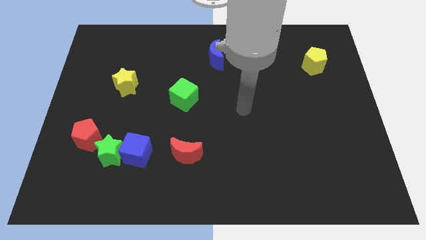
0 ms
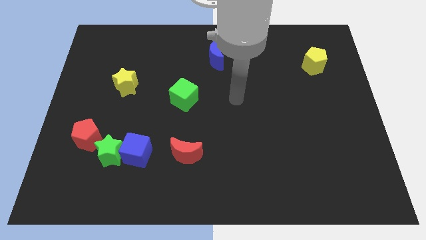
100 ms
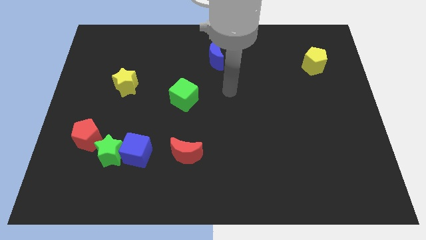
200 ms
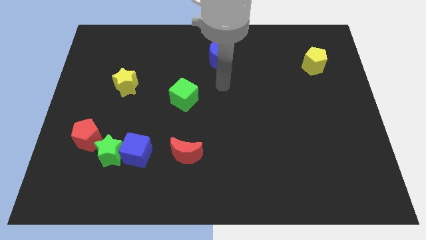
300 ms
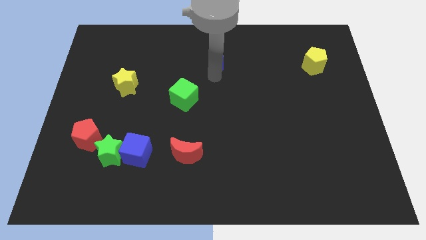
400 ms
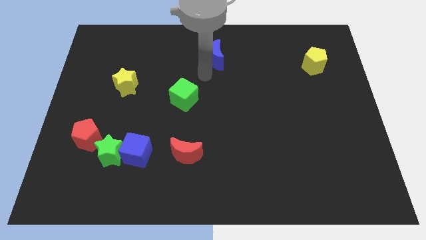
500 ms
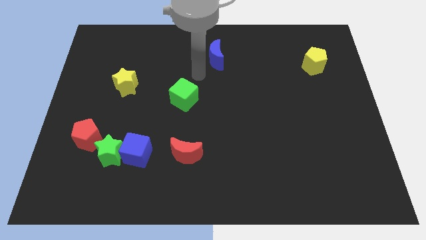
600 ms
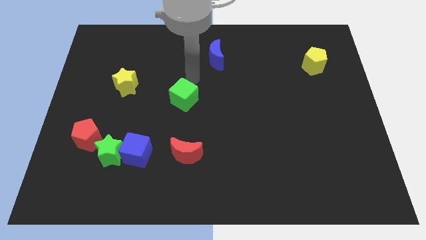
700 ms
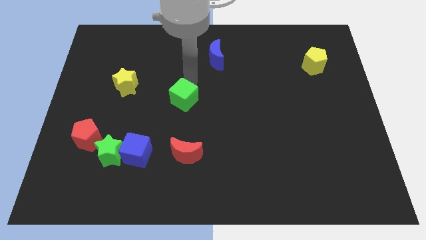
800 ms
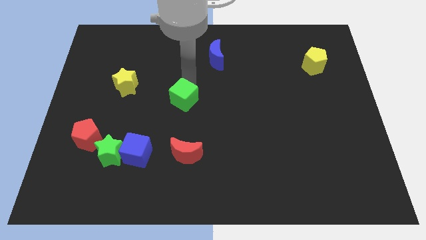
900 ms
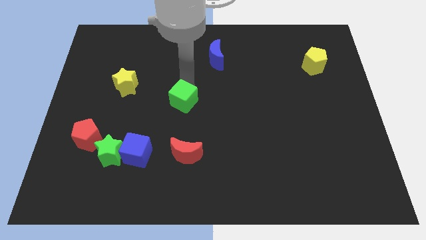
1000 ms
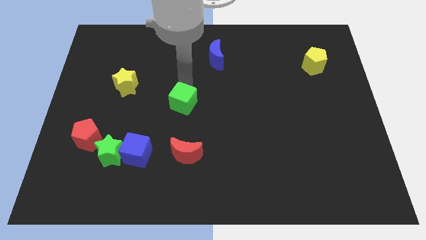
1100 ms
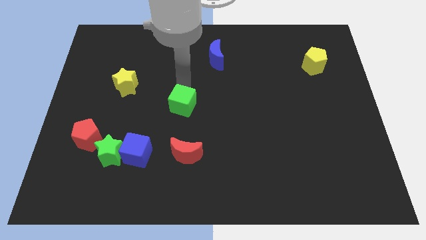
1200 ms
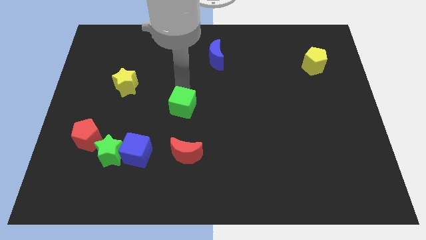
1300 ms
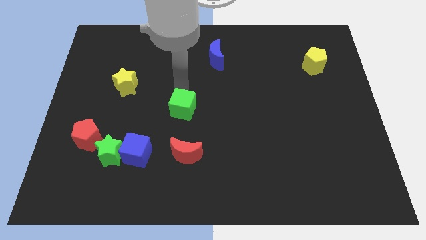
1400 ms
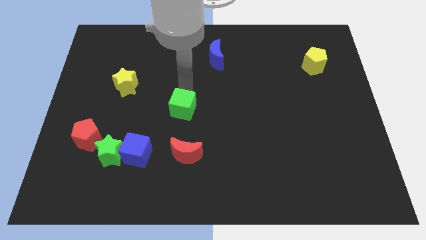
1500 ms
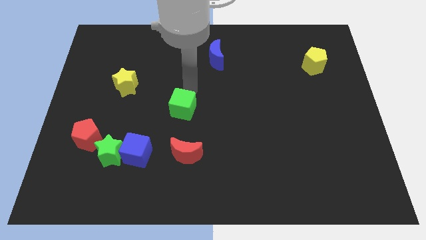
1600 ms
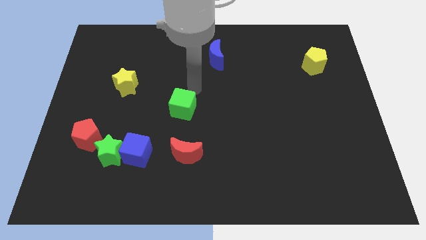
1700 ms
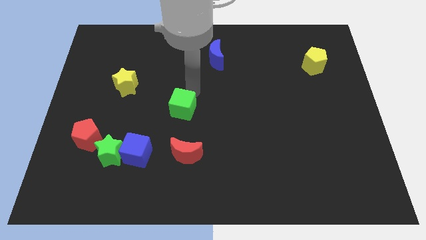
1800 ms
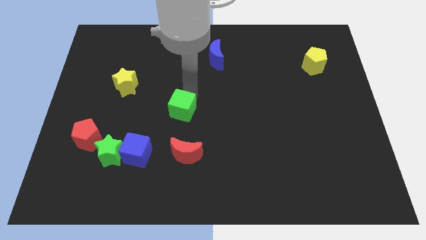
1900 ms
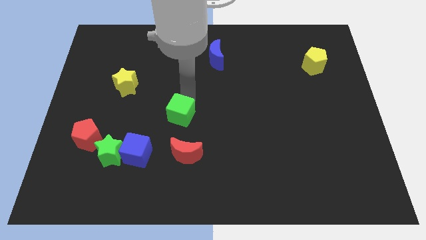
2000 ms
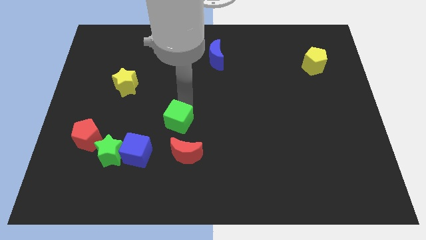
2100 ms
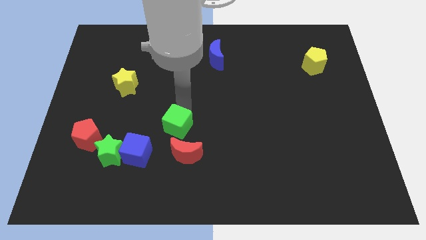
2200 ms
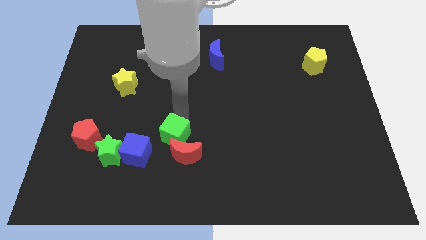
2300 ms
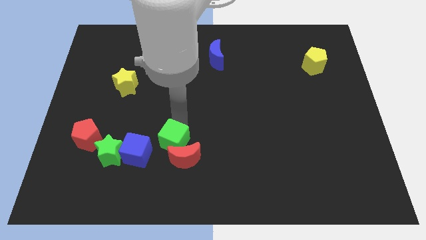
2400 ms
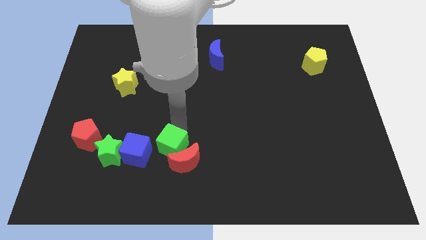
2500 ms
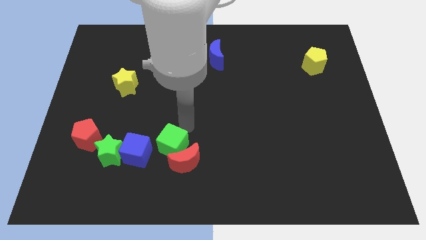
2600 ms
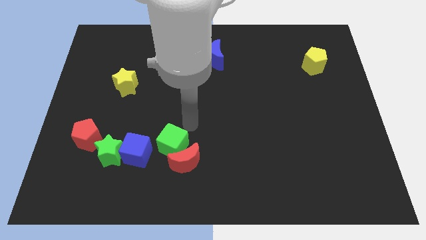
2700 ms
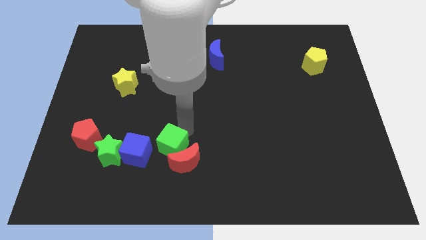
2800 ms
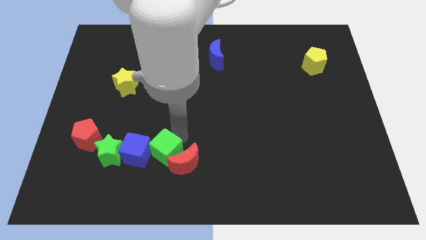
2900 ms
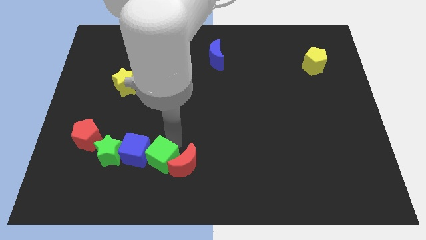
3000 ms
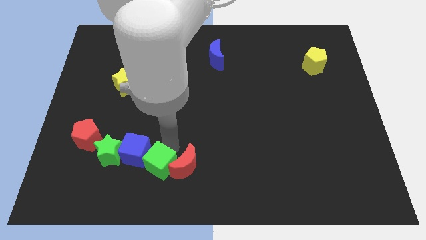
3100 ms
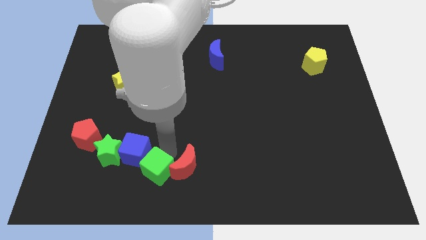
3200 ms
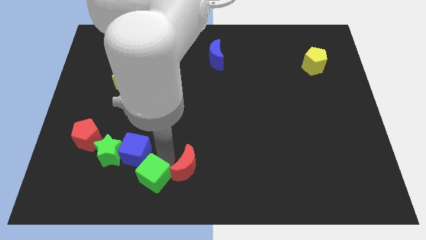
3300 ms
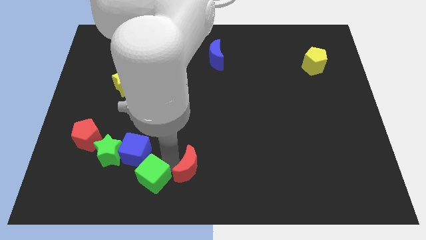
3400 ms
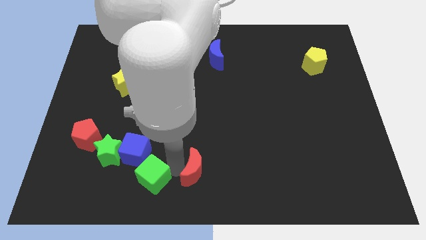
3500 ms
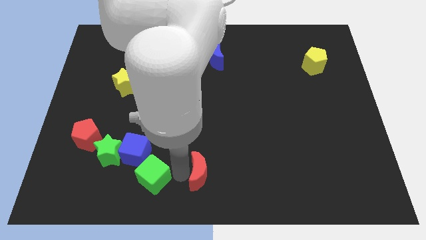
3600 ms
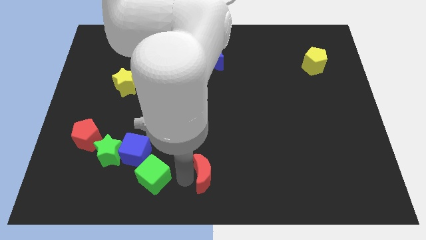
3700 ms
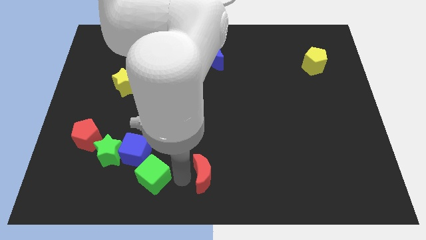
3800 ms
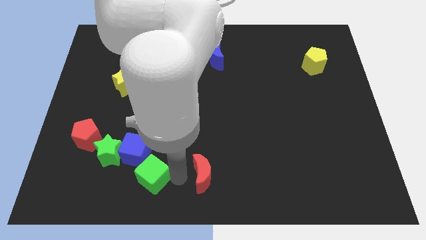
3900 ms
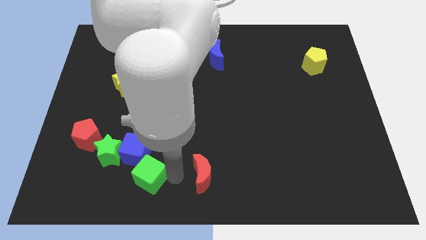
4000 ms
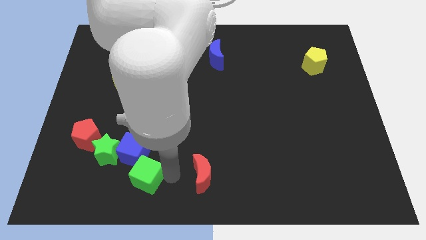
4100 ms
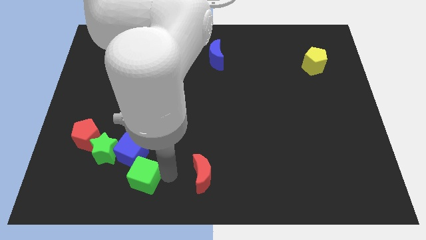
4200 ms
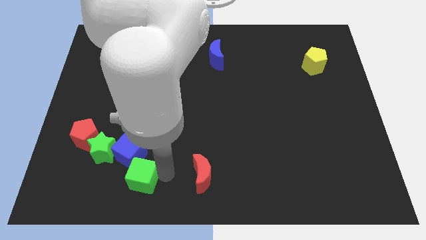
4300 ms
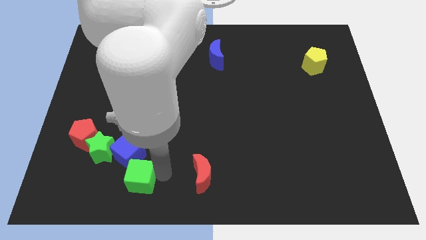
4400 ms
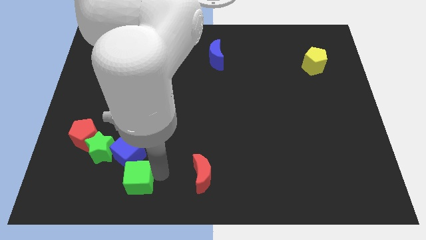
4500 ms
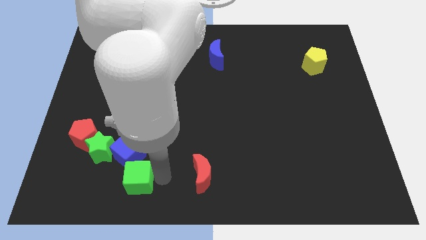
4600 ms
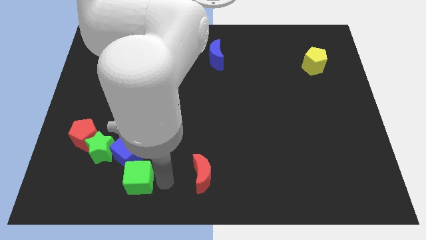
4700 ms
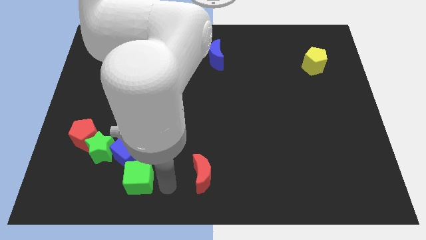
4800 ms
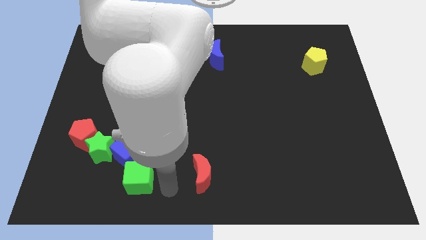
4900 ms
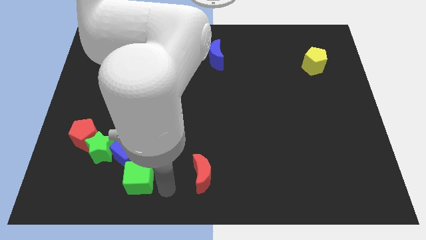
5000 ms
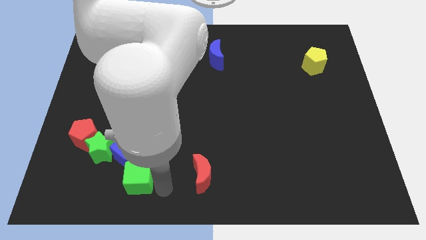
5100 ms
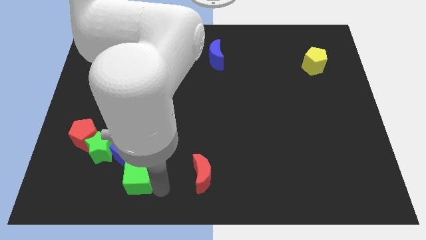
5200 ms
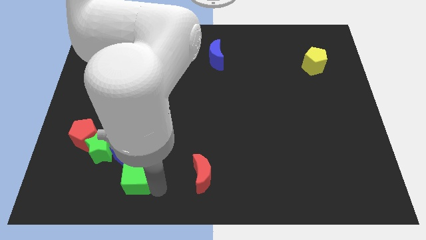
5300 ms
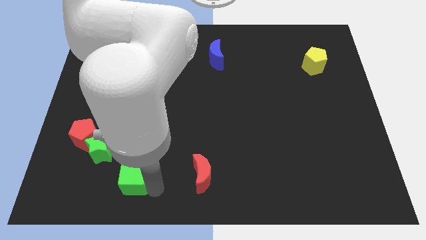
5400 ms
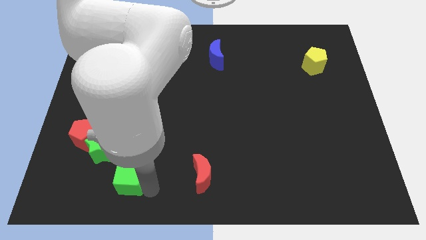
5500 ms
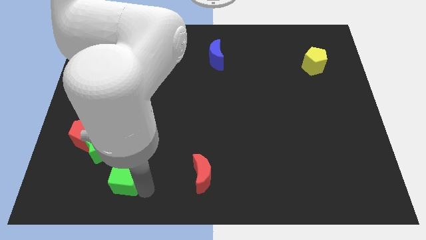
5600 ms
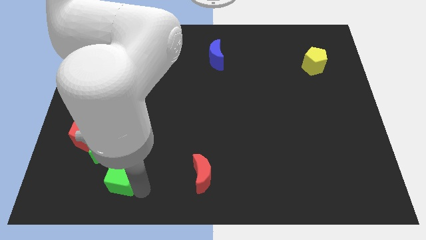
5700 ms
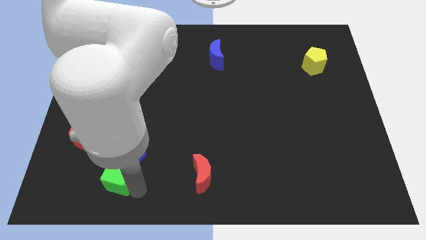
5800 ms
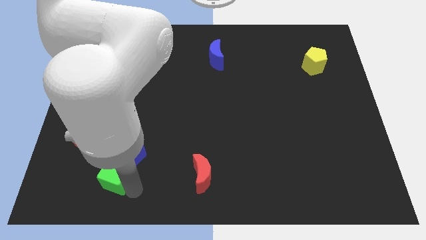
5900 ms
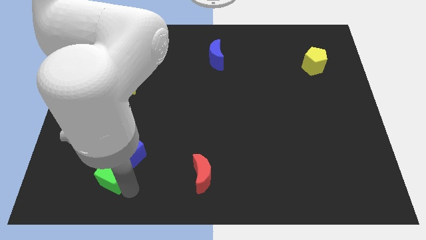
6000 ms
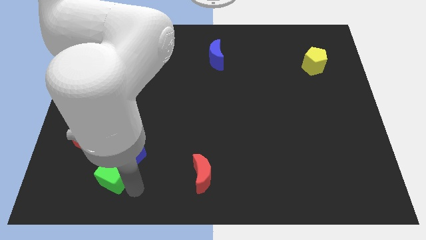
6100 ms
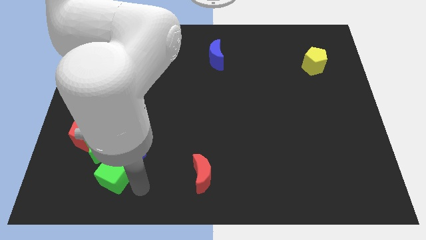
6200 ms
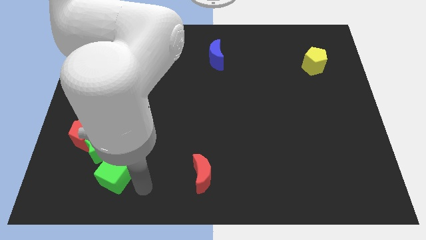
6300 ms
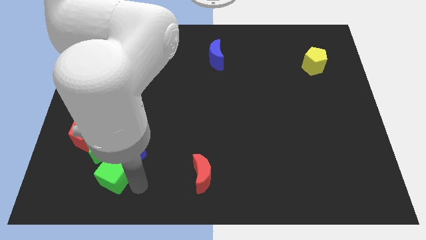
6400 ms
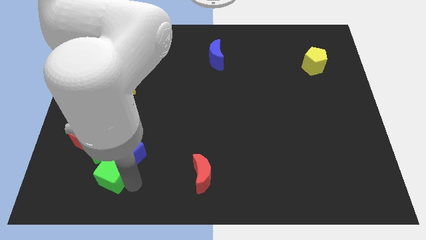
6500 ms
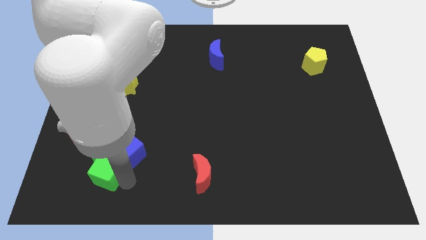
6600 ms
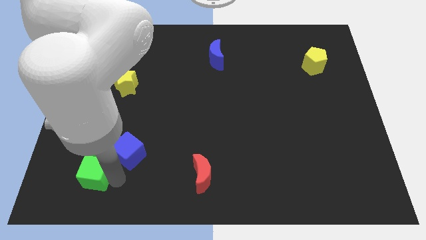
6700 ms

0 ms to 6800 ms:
push the green cube just left of the blue cube

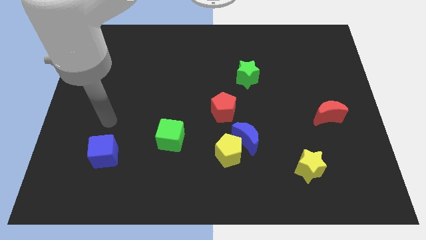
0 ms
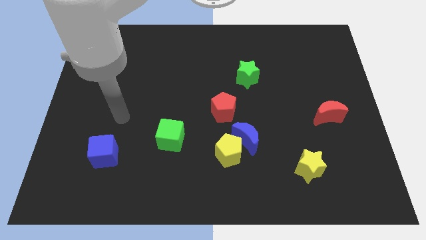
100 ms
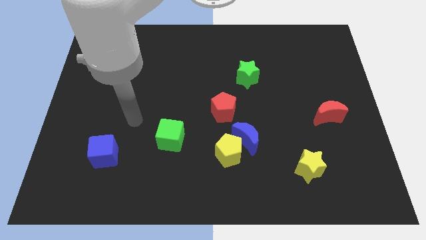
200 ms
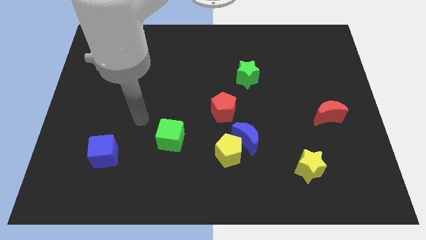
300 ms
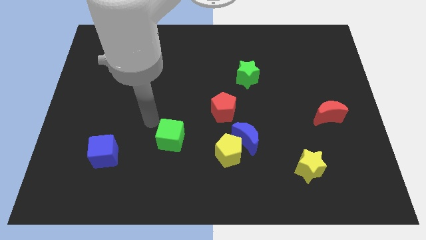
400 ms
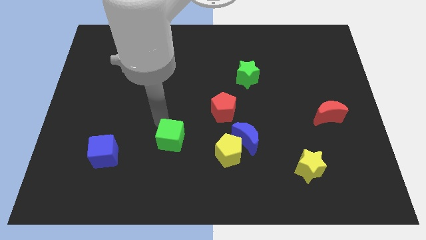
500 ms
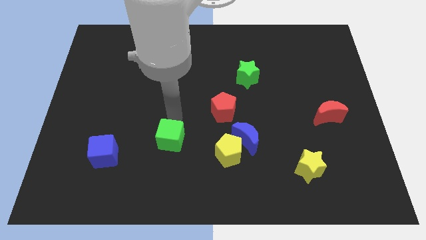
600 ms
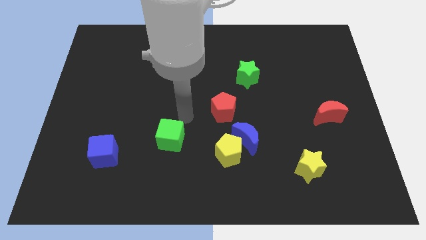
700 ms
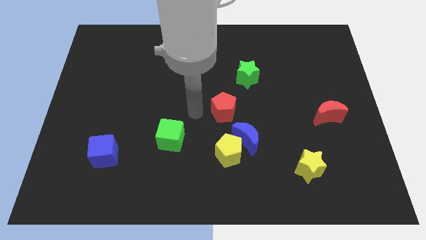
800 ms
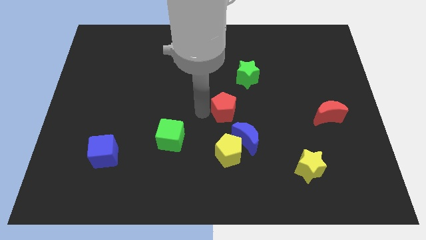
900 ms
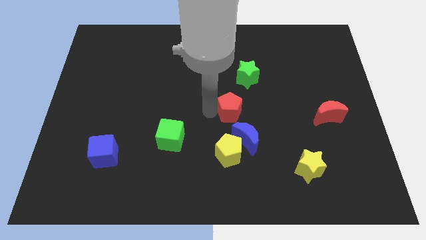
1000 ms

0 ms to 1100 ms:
move the red pentagon to the bottom side of the green star
